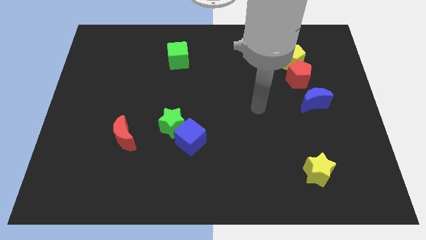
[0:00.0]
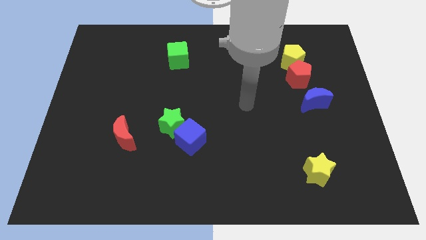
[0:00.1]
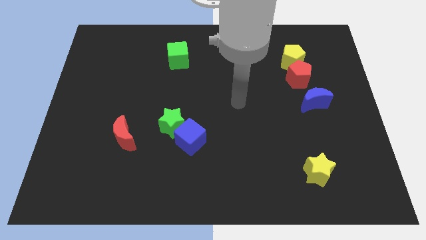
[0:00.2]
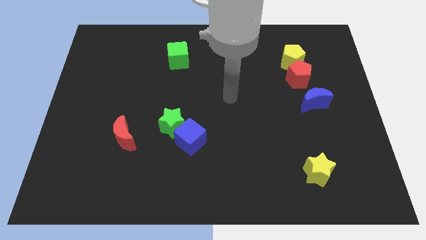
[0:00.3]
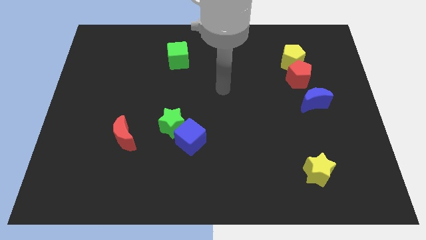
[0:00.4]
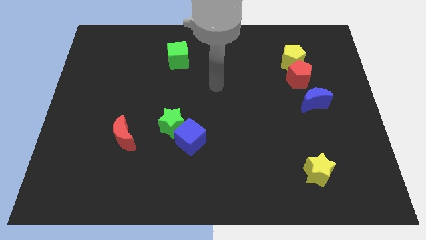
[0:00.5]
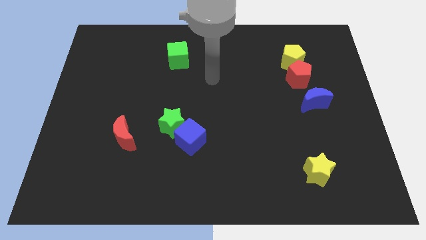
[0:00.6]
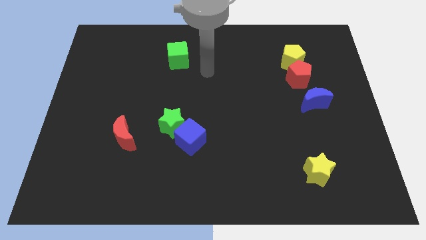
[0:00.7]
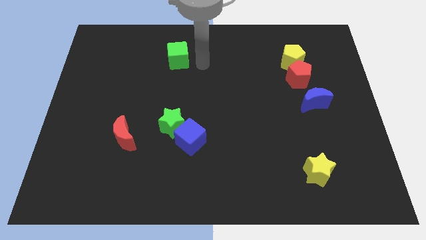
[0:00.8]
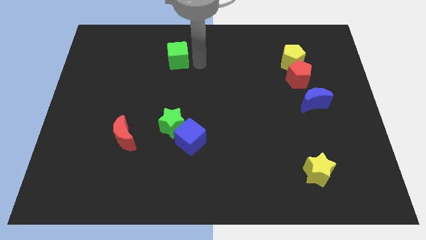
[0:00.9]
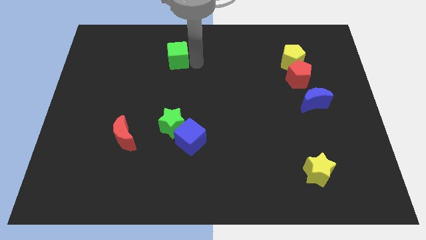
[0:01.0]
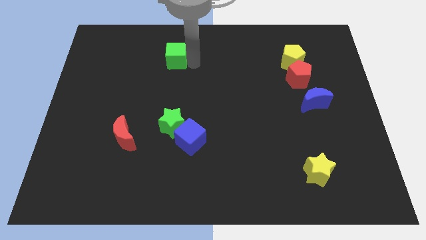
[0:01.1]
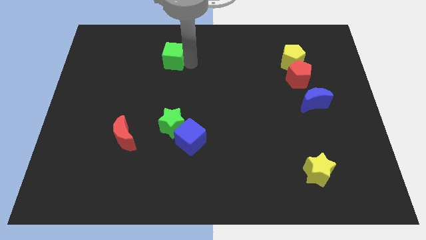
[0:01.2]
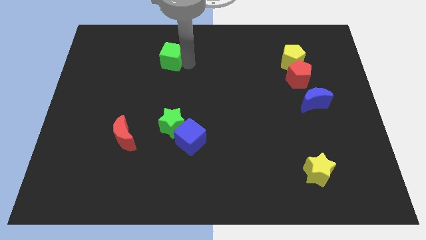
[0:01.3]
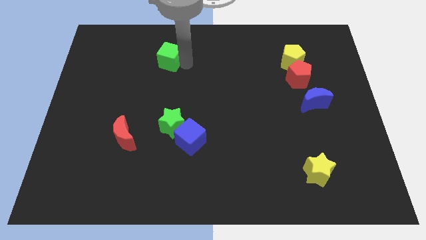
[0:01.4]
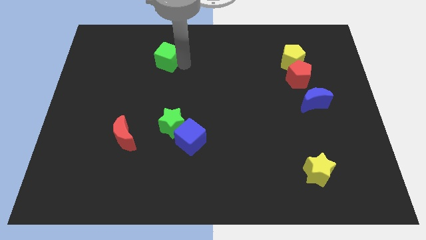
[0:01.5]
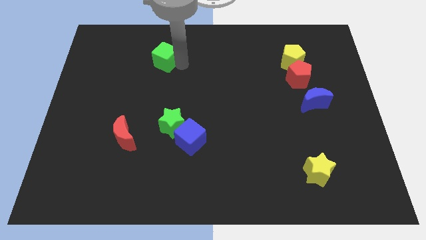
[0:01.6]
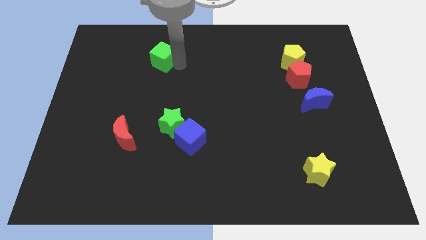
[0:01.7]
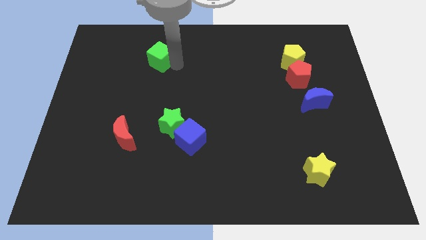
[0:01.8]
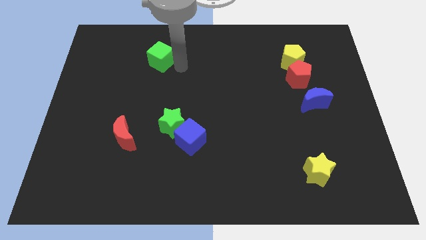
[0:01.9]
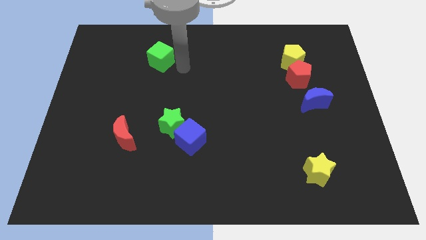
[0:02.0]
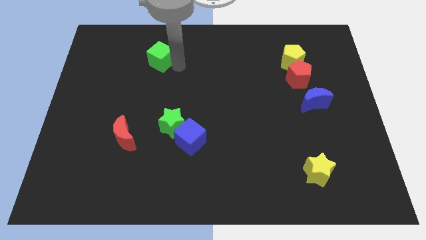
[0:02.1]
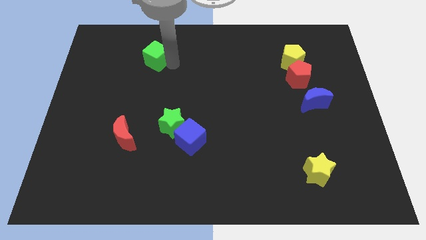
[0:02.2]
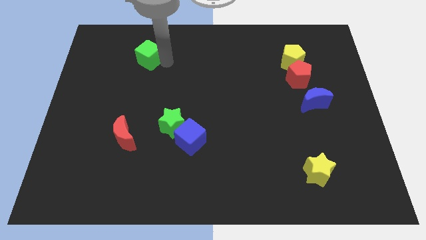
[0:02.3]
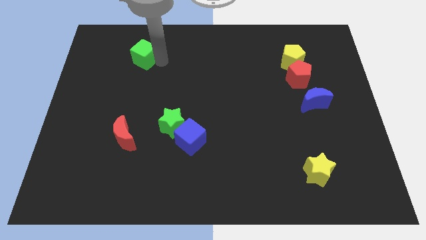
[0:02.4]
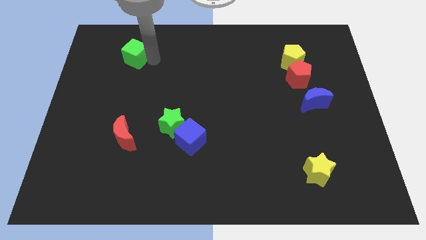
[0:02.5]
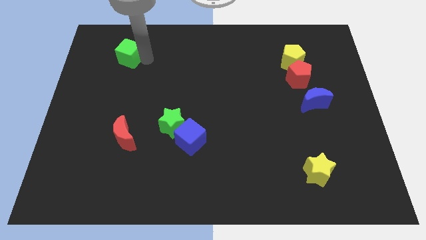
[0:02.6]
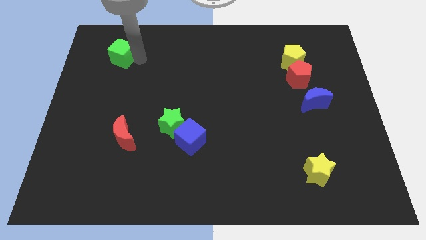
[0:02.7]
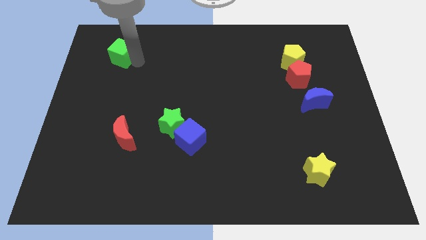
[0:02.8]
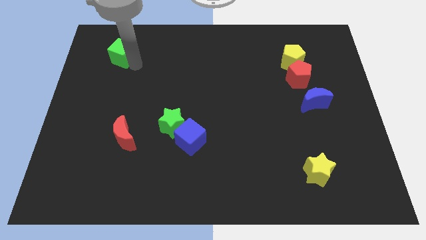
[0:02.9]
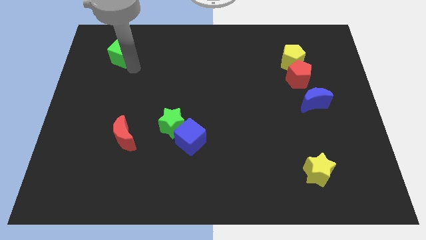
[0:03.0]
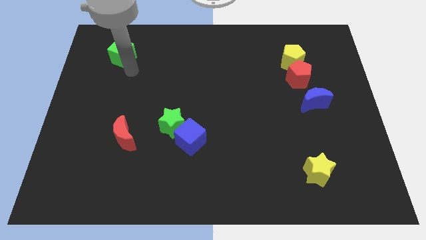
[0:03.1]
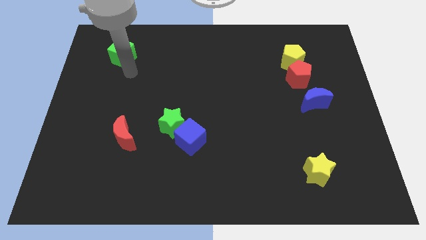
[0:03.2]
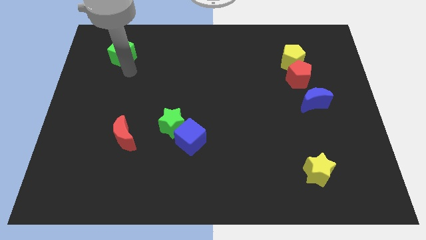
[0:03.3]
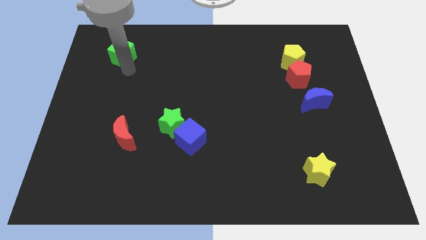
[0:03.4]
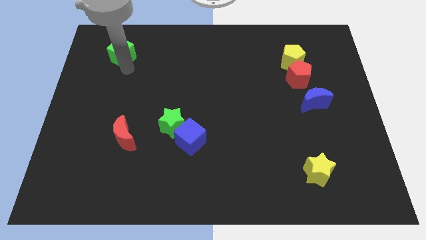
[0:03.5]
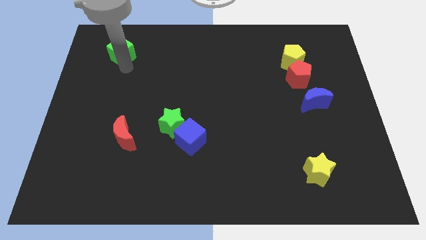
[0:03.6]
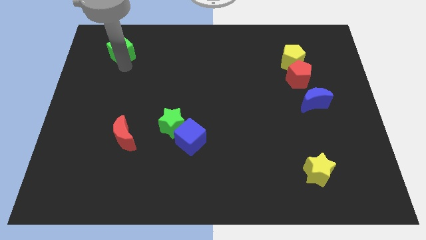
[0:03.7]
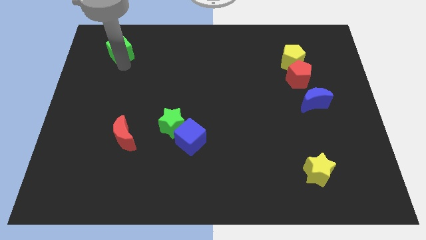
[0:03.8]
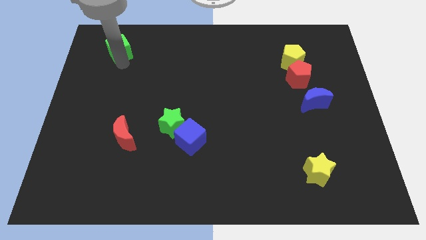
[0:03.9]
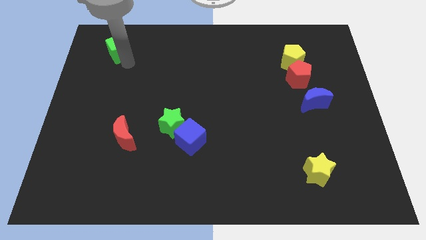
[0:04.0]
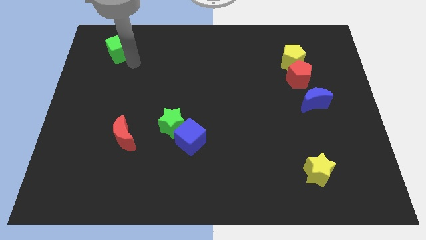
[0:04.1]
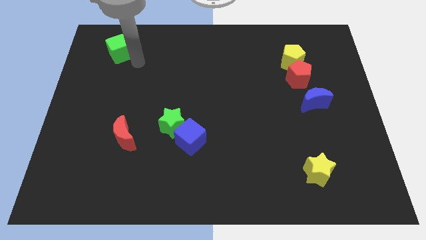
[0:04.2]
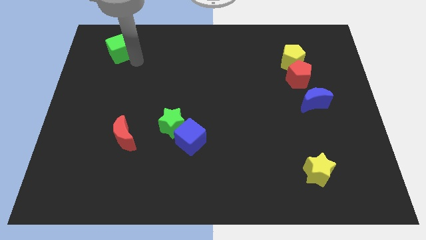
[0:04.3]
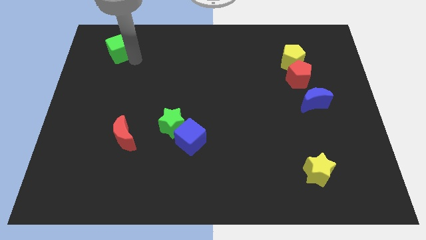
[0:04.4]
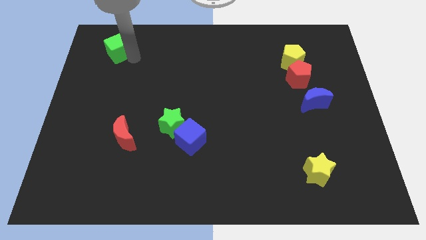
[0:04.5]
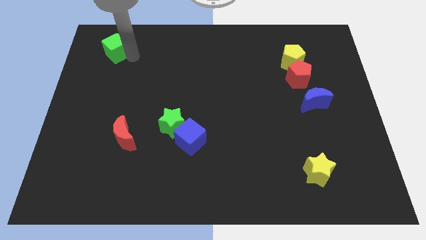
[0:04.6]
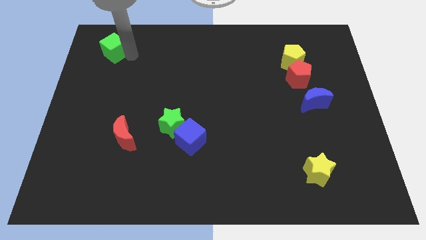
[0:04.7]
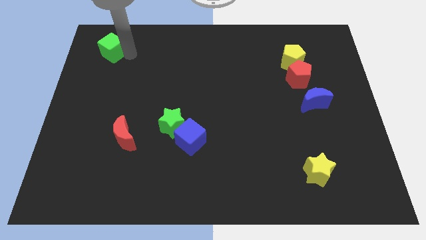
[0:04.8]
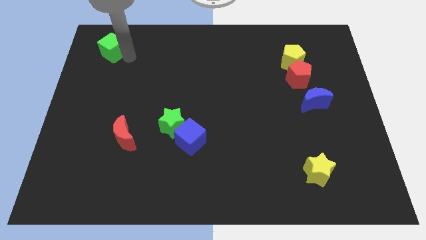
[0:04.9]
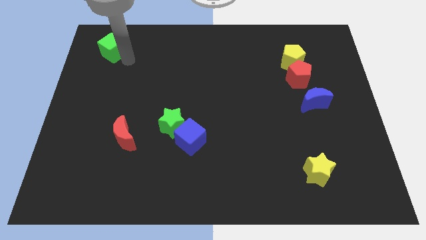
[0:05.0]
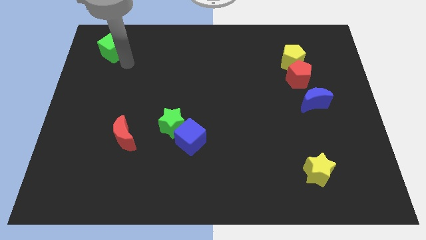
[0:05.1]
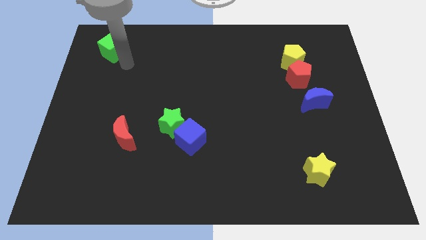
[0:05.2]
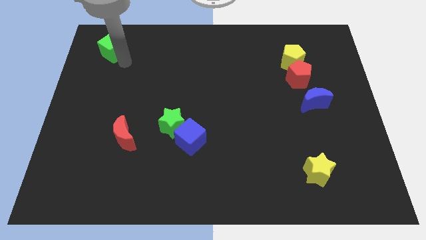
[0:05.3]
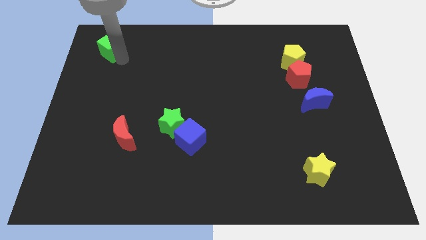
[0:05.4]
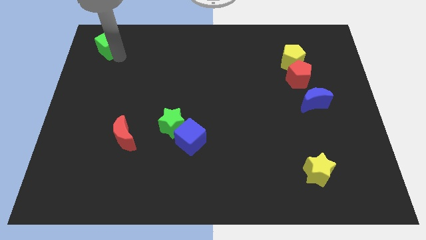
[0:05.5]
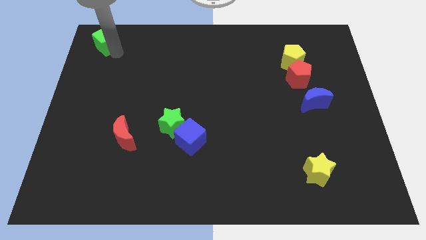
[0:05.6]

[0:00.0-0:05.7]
put the green cube to the upper left corner
